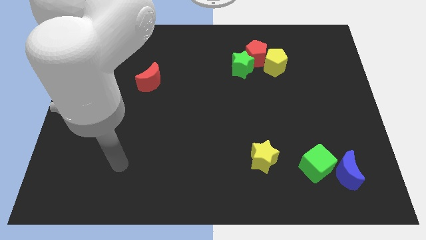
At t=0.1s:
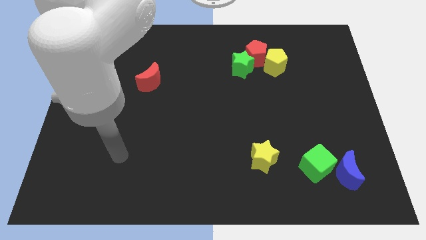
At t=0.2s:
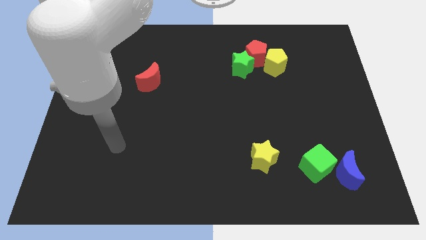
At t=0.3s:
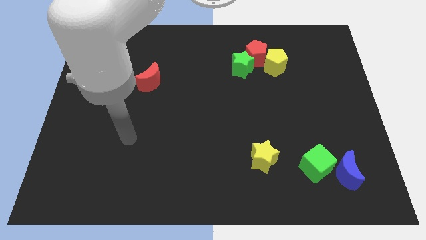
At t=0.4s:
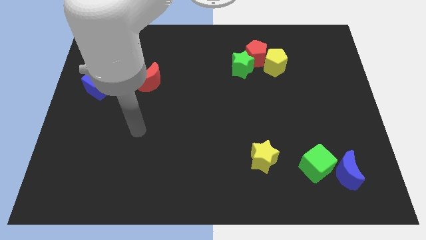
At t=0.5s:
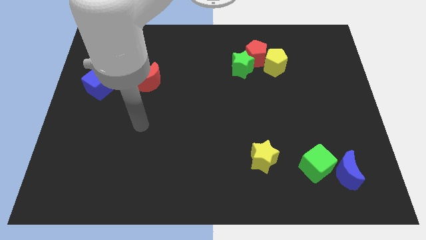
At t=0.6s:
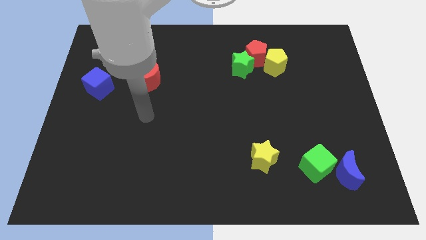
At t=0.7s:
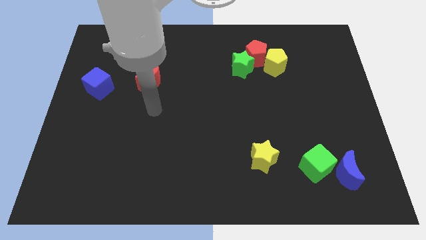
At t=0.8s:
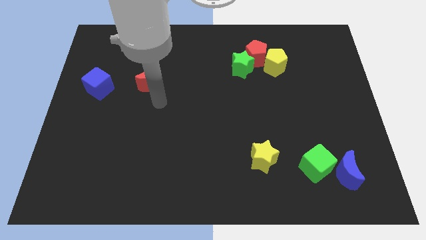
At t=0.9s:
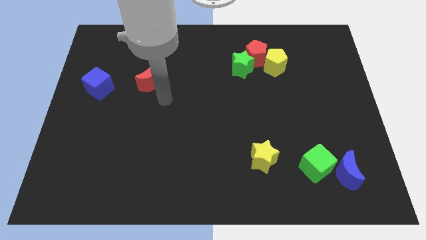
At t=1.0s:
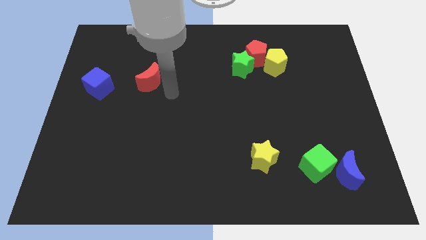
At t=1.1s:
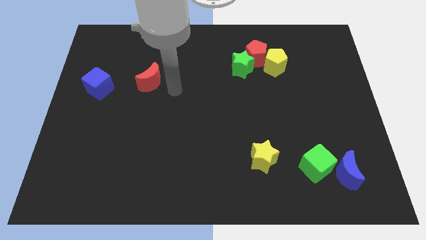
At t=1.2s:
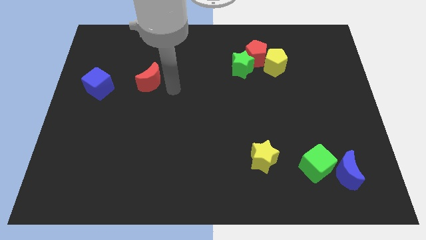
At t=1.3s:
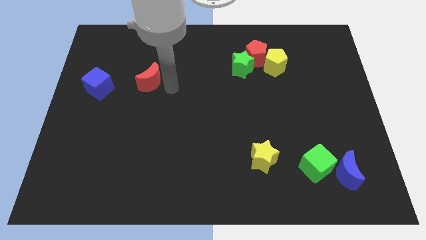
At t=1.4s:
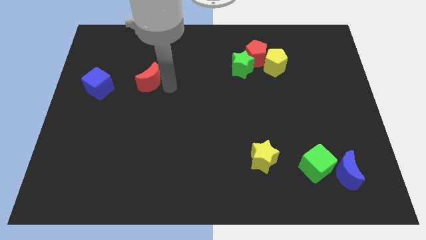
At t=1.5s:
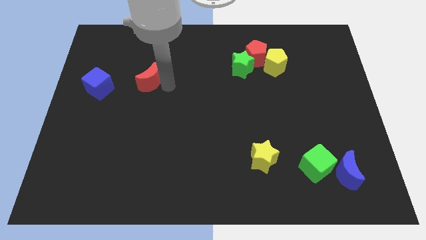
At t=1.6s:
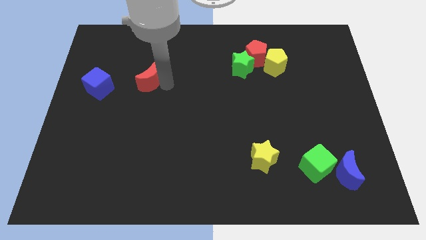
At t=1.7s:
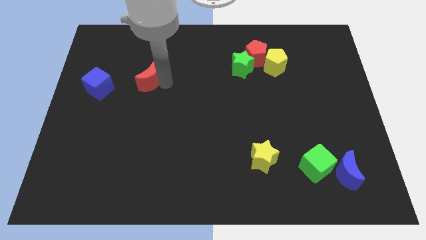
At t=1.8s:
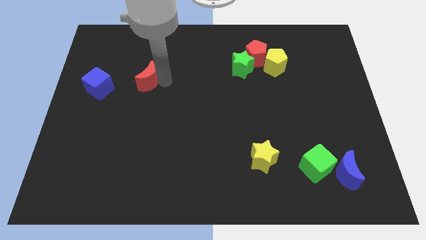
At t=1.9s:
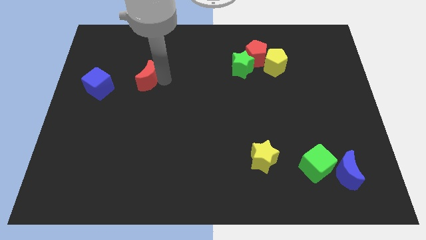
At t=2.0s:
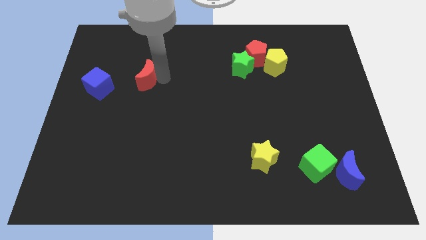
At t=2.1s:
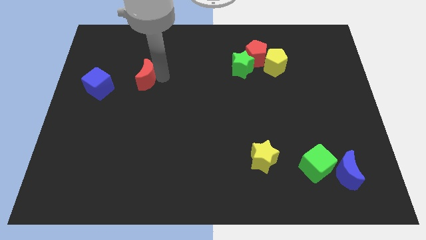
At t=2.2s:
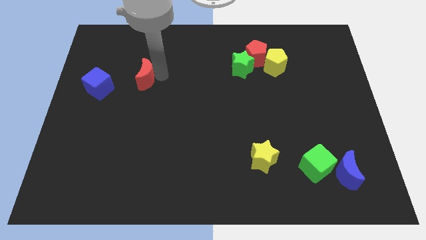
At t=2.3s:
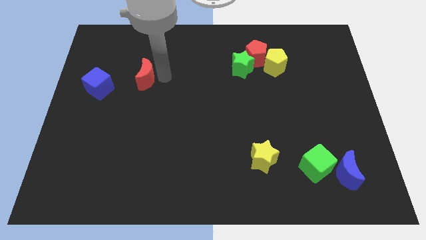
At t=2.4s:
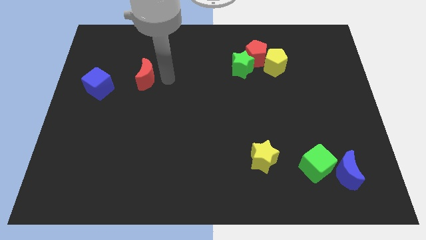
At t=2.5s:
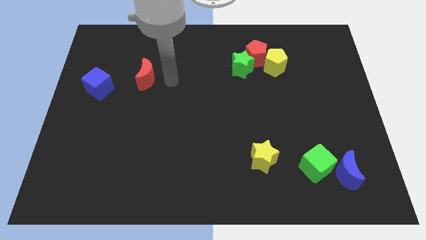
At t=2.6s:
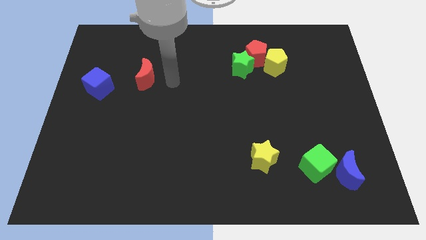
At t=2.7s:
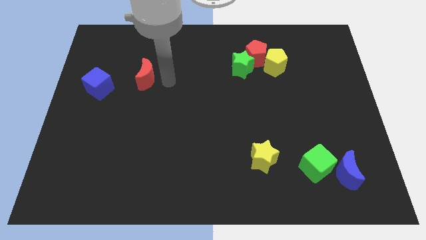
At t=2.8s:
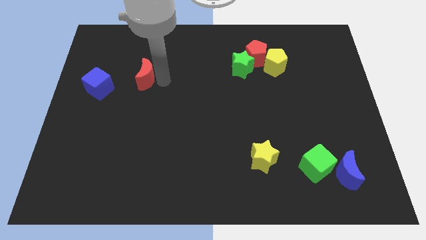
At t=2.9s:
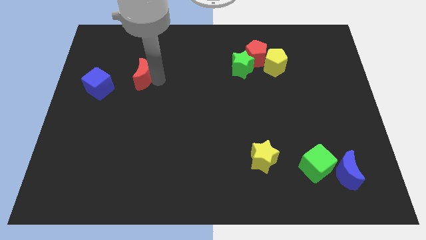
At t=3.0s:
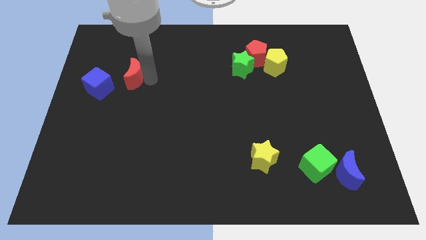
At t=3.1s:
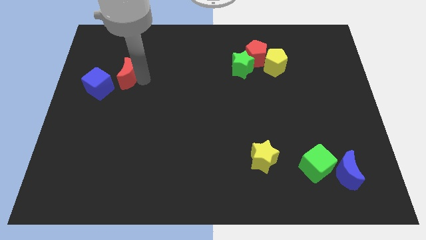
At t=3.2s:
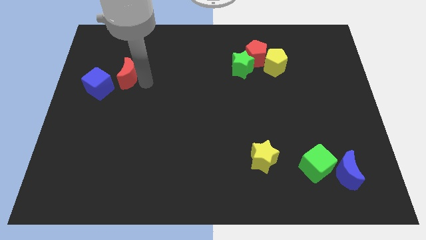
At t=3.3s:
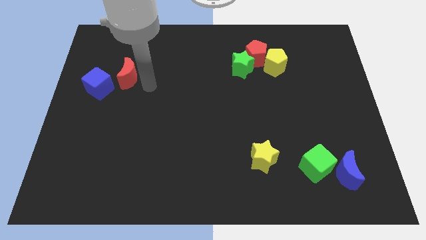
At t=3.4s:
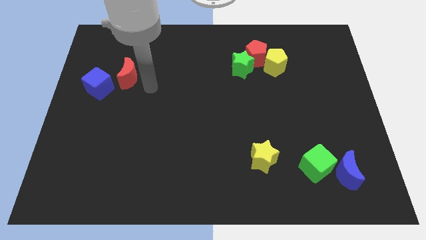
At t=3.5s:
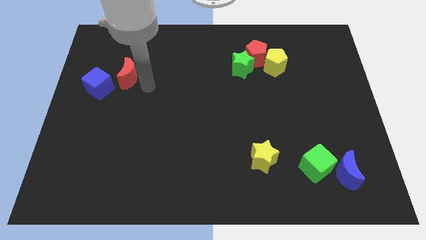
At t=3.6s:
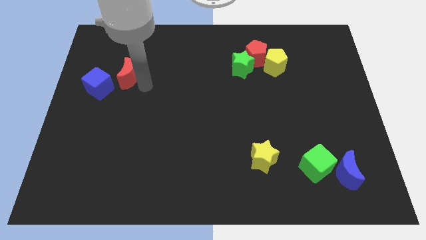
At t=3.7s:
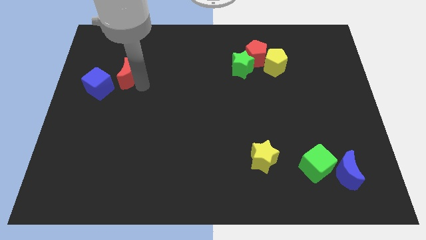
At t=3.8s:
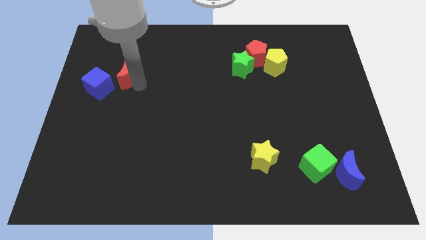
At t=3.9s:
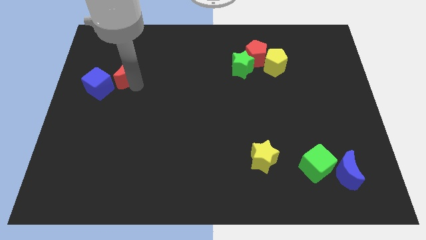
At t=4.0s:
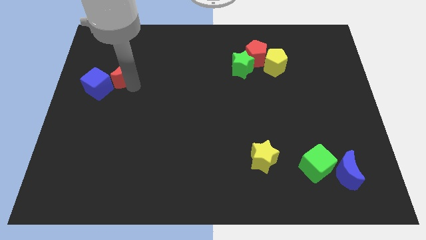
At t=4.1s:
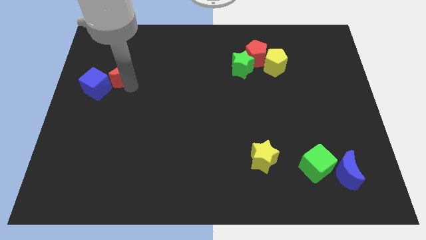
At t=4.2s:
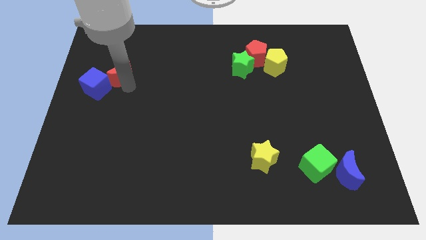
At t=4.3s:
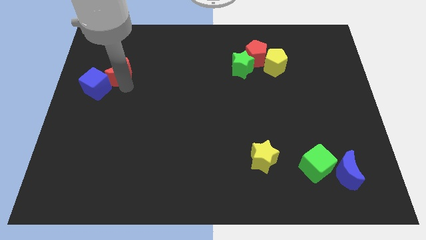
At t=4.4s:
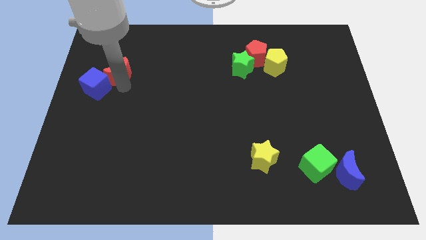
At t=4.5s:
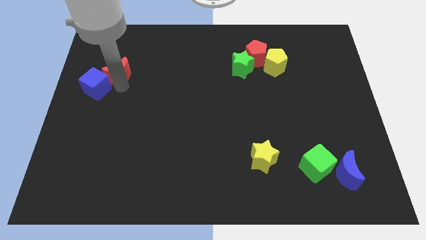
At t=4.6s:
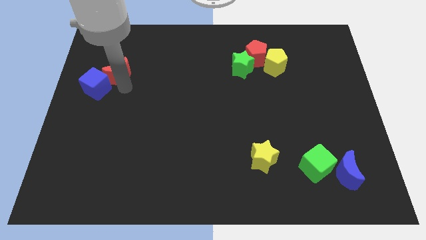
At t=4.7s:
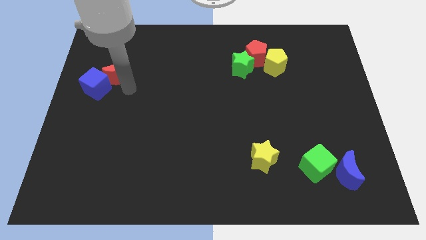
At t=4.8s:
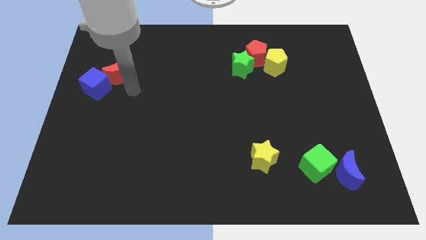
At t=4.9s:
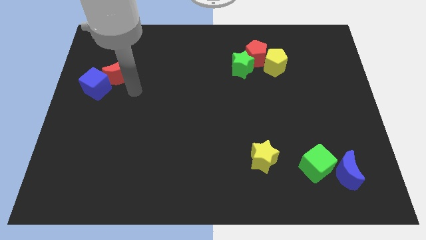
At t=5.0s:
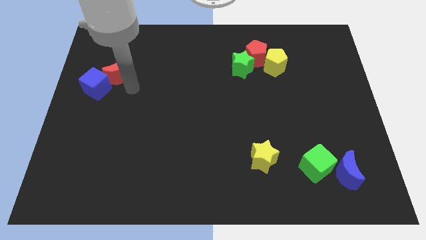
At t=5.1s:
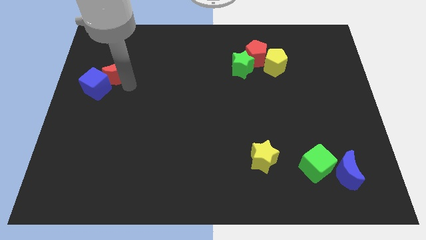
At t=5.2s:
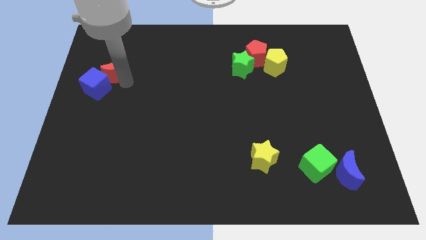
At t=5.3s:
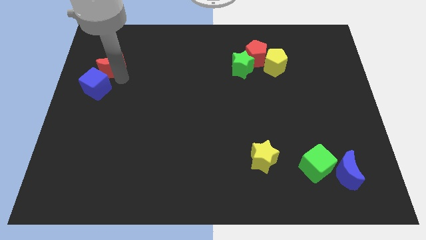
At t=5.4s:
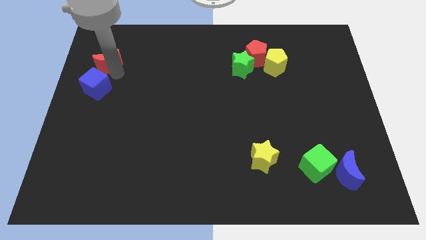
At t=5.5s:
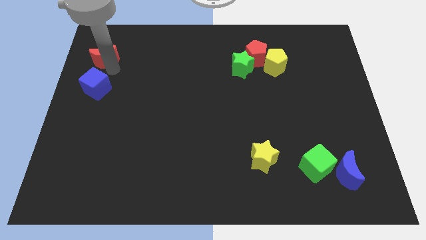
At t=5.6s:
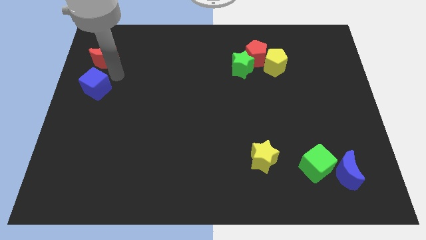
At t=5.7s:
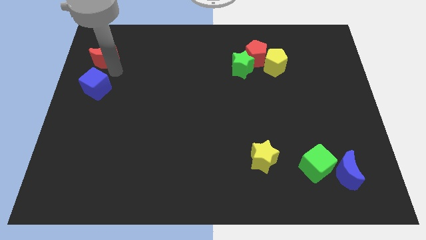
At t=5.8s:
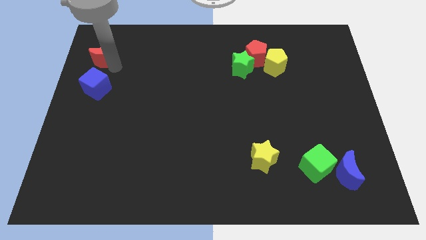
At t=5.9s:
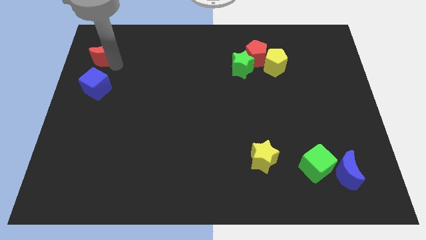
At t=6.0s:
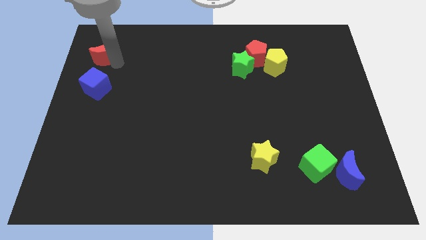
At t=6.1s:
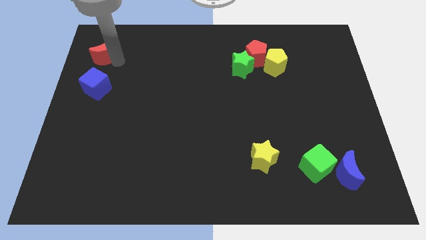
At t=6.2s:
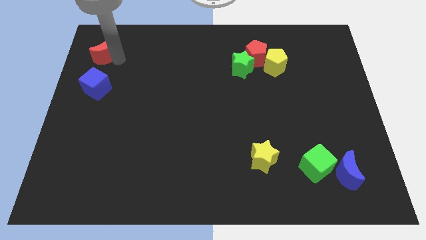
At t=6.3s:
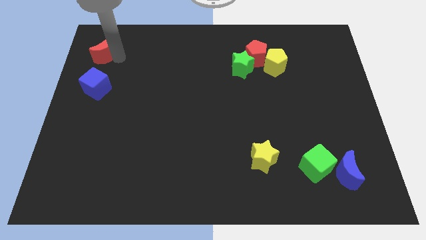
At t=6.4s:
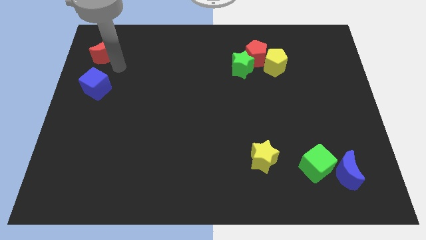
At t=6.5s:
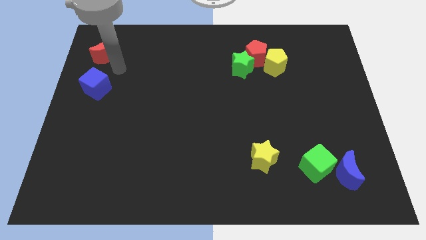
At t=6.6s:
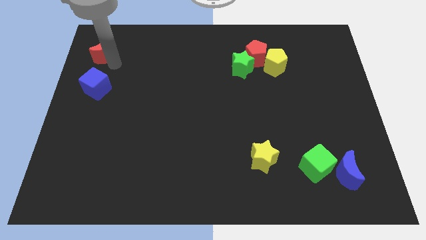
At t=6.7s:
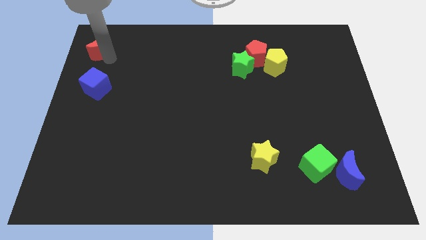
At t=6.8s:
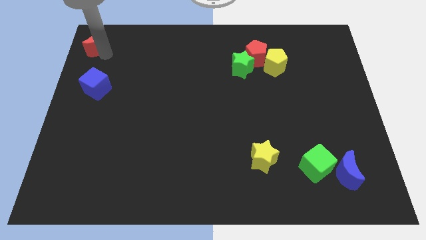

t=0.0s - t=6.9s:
push the red moon to the top left corner

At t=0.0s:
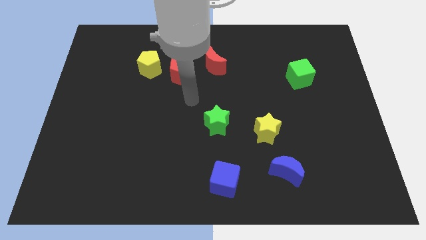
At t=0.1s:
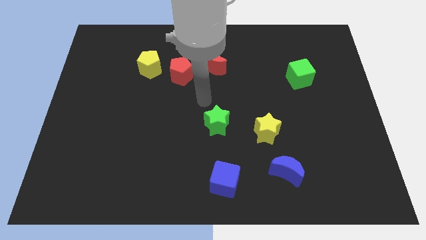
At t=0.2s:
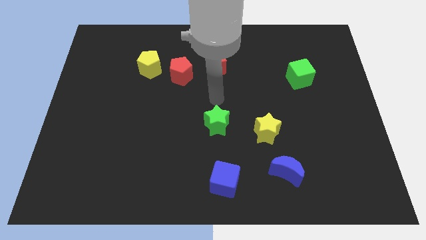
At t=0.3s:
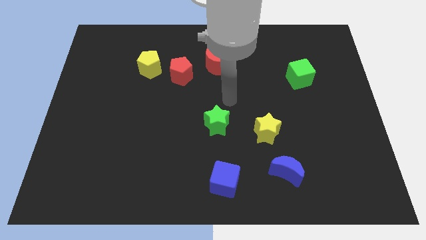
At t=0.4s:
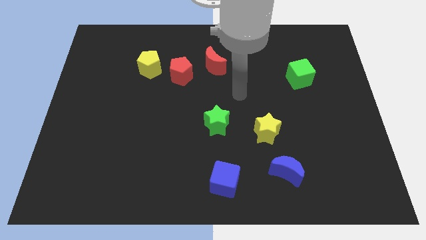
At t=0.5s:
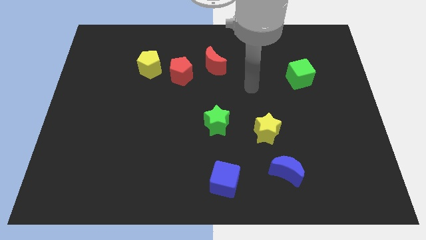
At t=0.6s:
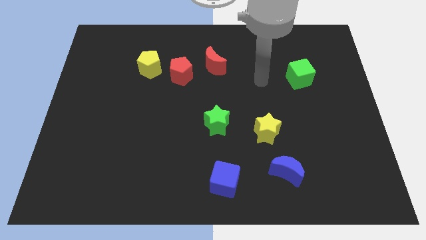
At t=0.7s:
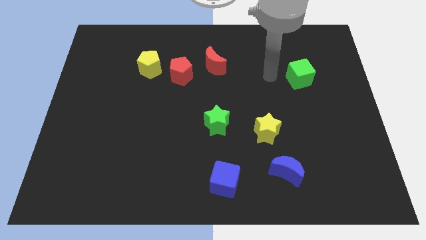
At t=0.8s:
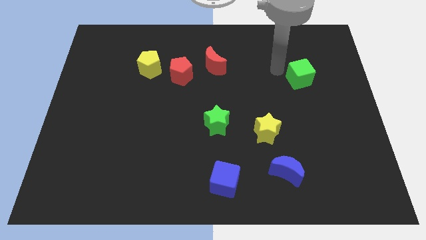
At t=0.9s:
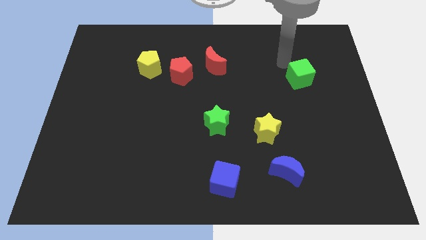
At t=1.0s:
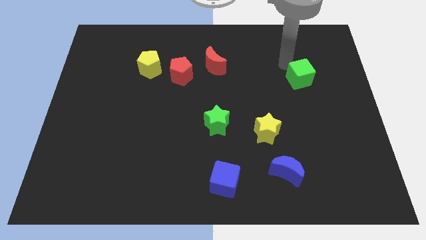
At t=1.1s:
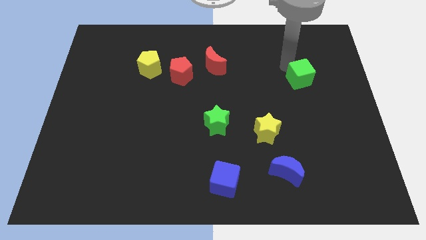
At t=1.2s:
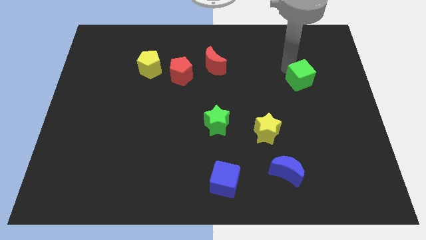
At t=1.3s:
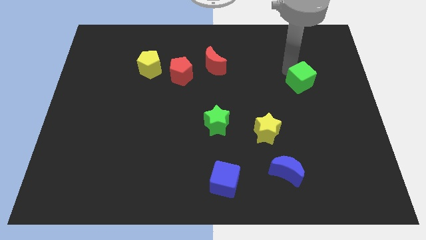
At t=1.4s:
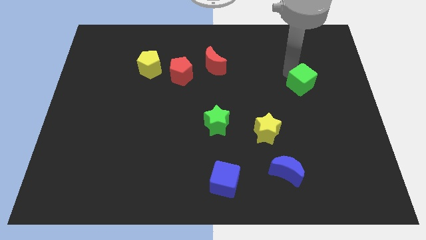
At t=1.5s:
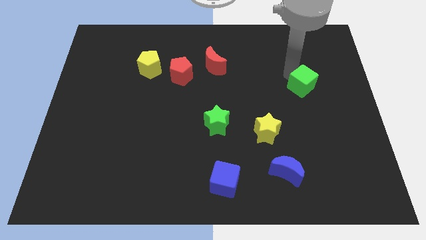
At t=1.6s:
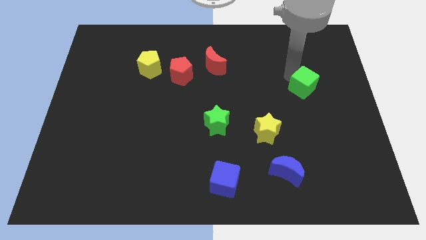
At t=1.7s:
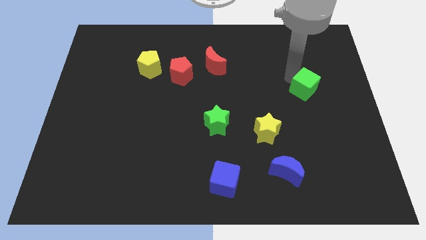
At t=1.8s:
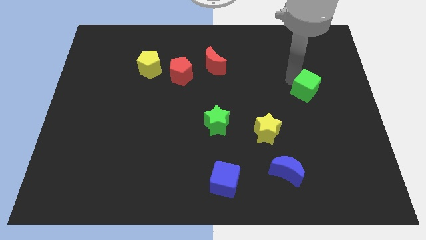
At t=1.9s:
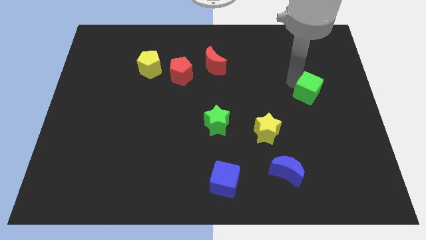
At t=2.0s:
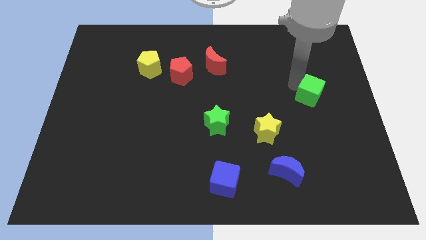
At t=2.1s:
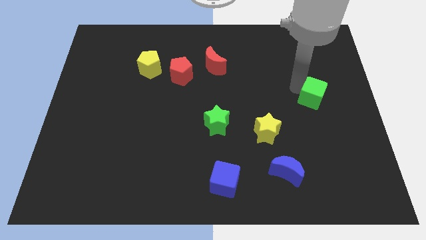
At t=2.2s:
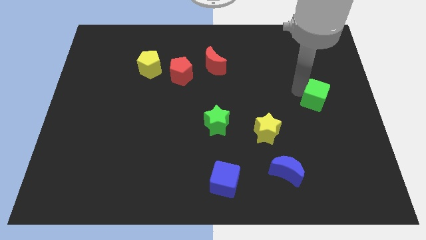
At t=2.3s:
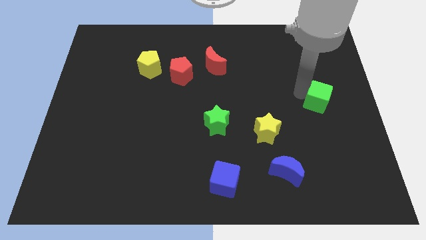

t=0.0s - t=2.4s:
slide the green cube to the right side of the board
